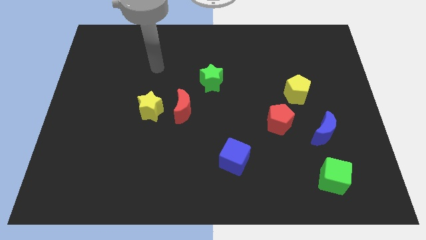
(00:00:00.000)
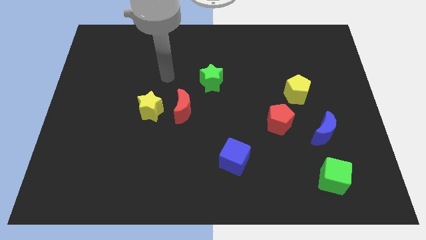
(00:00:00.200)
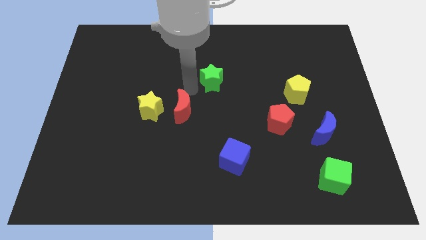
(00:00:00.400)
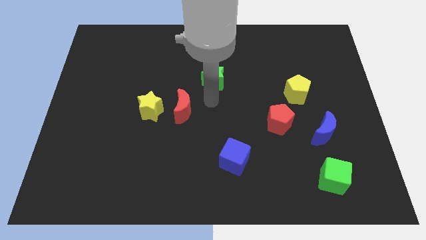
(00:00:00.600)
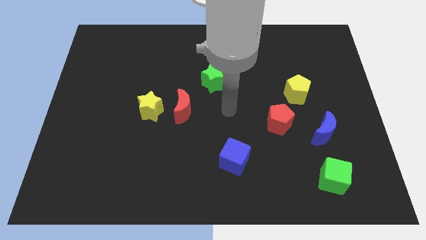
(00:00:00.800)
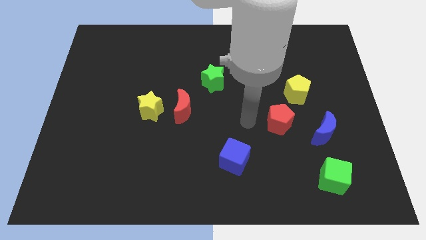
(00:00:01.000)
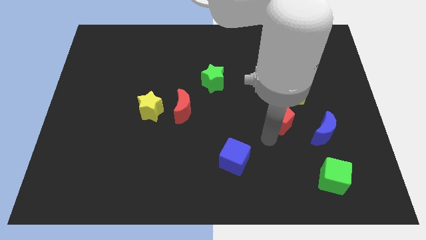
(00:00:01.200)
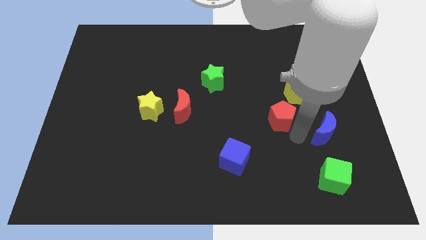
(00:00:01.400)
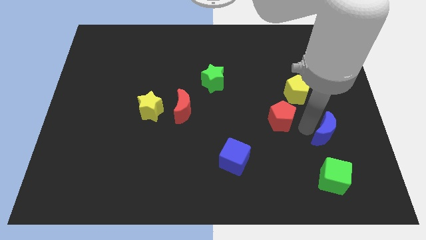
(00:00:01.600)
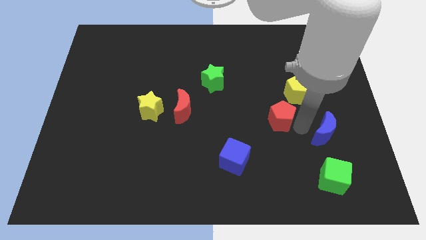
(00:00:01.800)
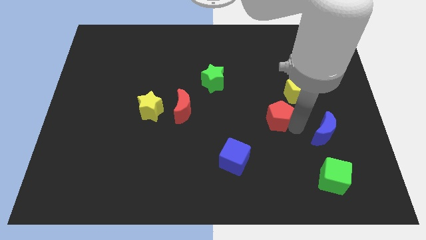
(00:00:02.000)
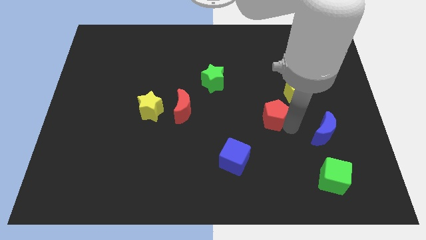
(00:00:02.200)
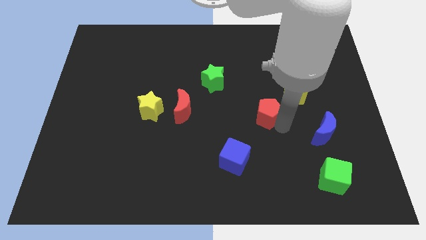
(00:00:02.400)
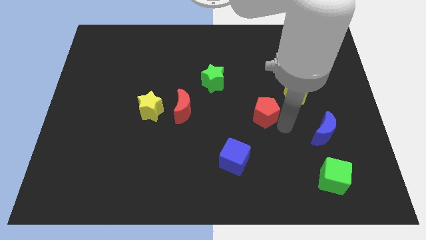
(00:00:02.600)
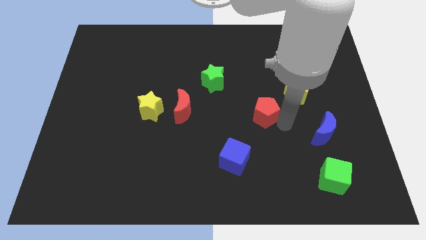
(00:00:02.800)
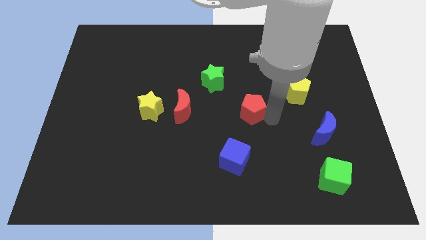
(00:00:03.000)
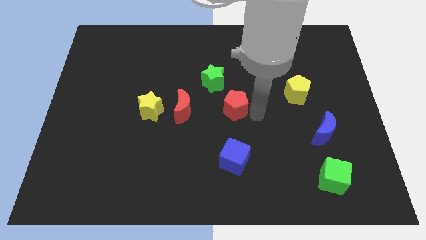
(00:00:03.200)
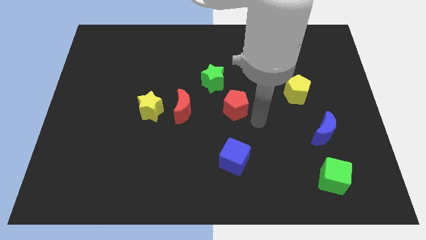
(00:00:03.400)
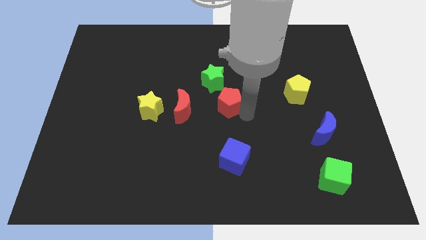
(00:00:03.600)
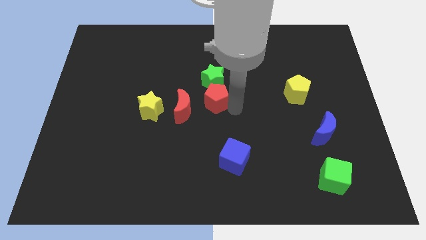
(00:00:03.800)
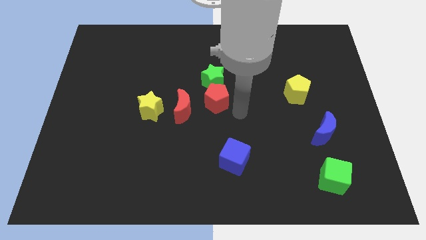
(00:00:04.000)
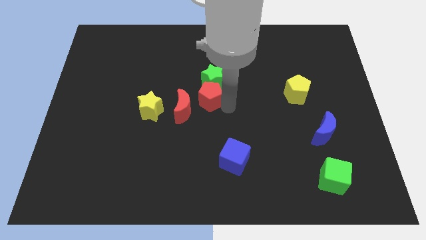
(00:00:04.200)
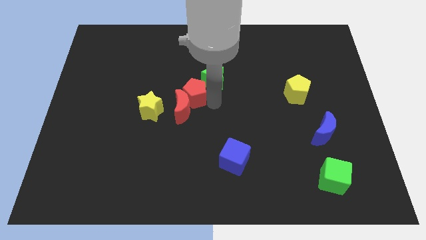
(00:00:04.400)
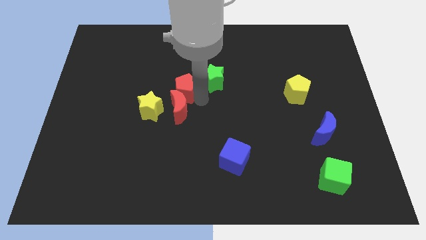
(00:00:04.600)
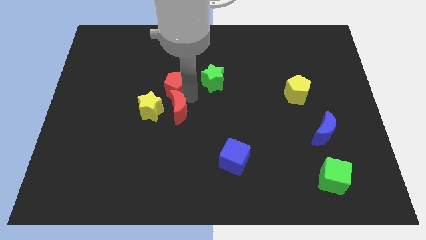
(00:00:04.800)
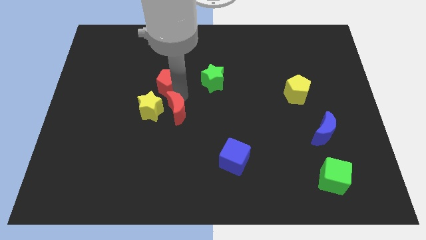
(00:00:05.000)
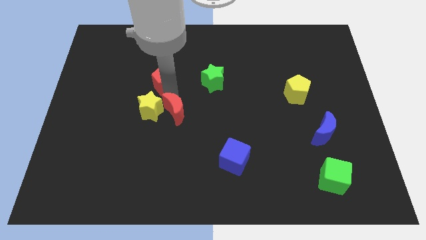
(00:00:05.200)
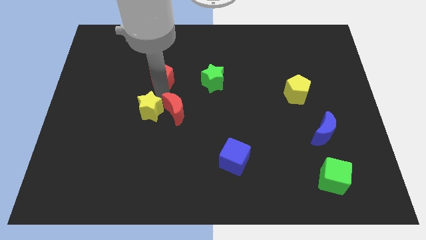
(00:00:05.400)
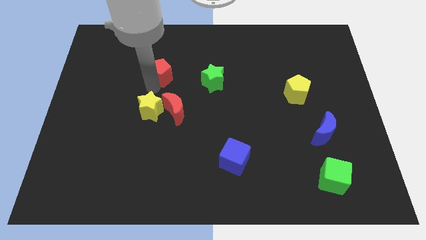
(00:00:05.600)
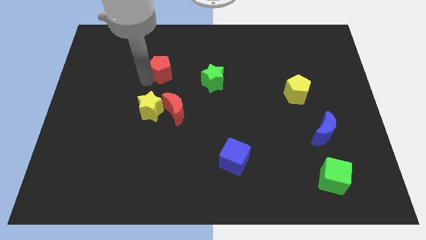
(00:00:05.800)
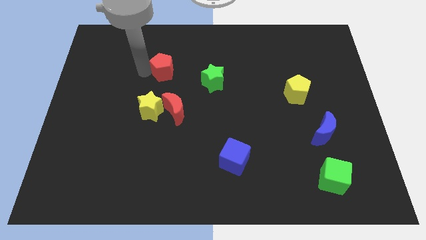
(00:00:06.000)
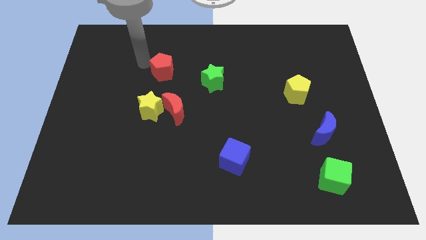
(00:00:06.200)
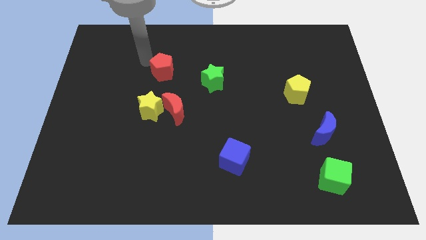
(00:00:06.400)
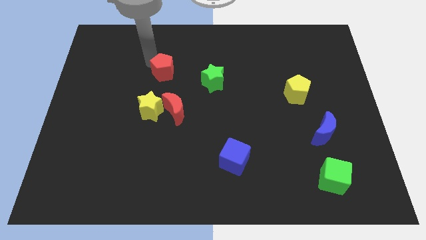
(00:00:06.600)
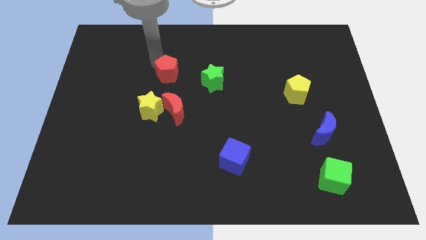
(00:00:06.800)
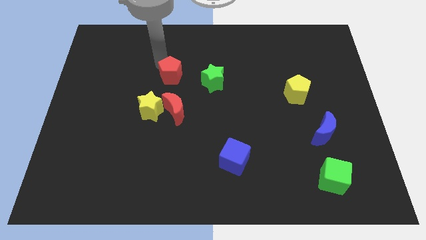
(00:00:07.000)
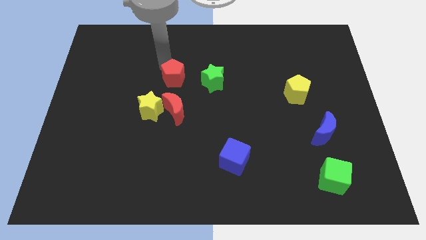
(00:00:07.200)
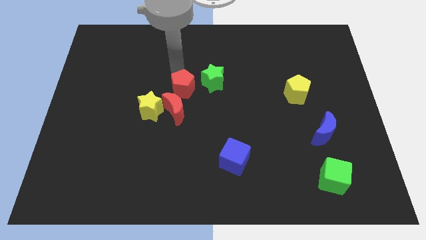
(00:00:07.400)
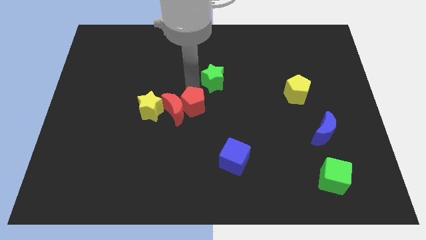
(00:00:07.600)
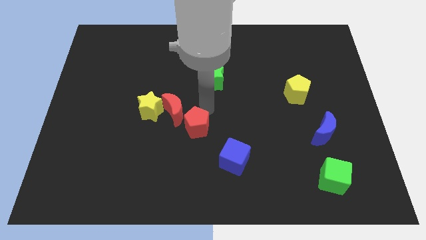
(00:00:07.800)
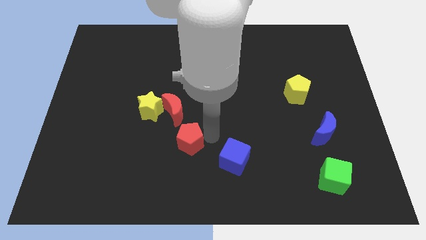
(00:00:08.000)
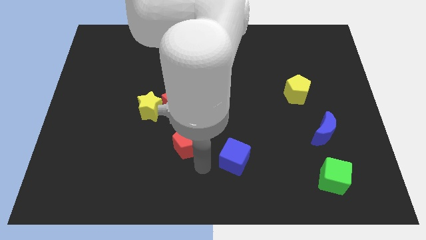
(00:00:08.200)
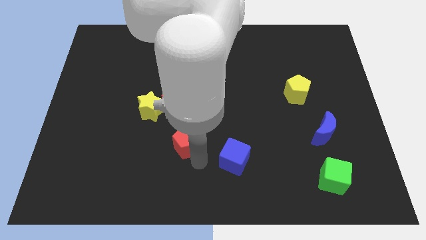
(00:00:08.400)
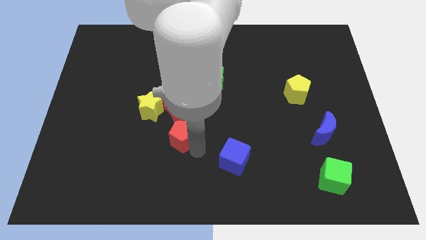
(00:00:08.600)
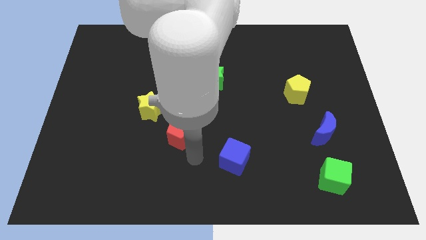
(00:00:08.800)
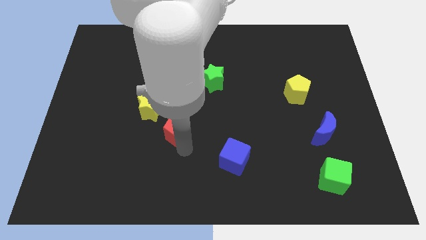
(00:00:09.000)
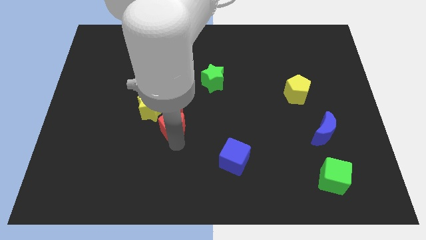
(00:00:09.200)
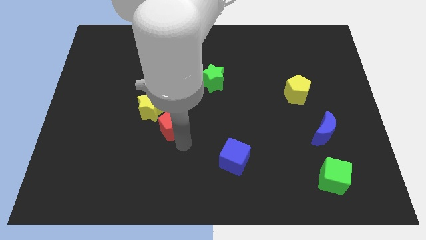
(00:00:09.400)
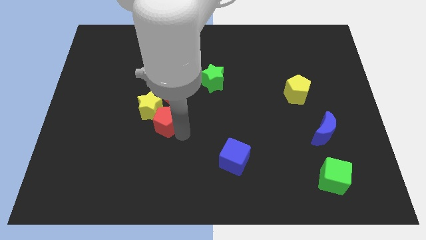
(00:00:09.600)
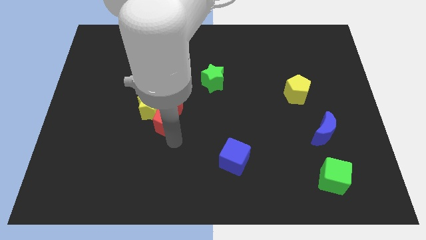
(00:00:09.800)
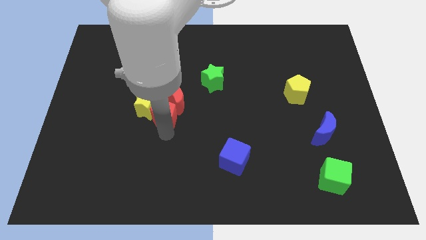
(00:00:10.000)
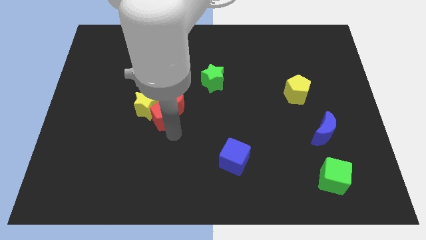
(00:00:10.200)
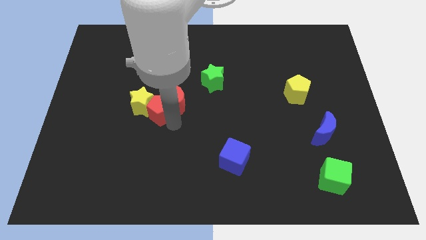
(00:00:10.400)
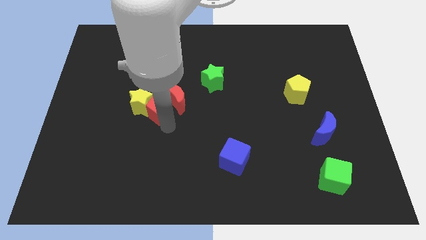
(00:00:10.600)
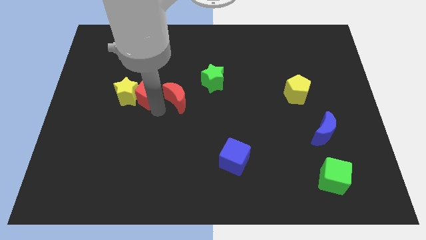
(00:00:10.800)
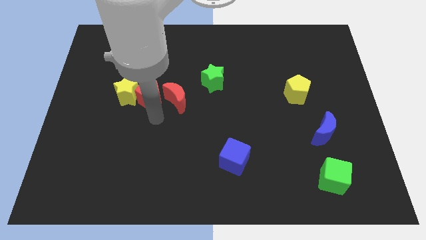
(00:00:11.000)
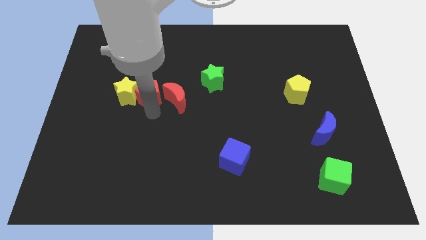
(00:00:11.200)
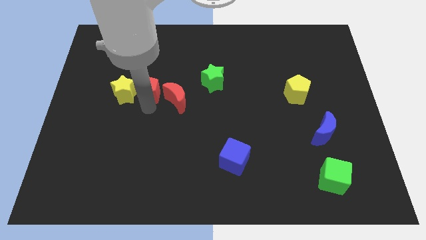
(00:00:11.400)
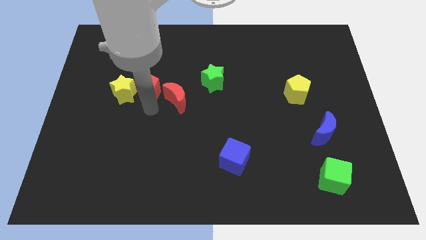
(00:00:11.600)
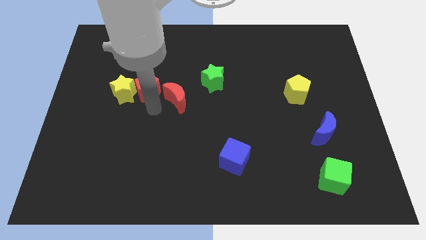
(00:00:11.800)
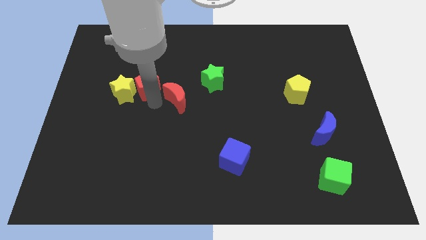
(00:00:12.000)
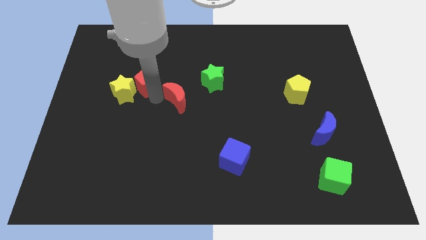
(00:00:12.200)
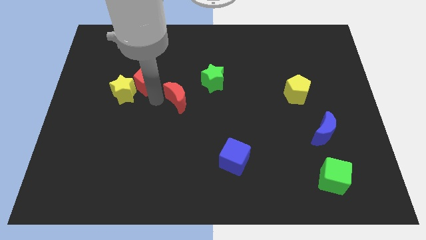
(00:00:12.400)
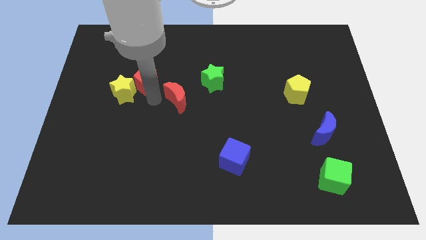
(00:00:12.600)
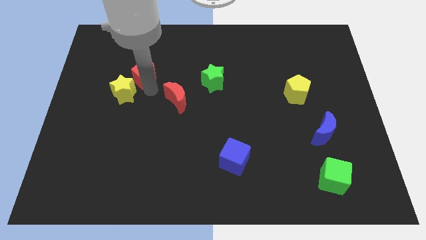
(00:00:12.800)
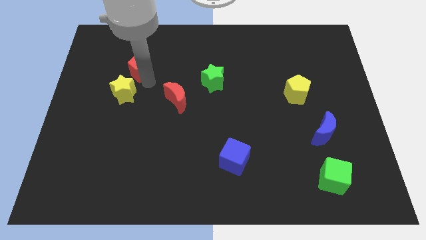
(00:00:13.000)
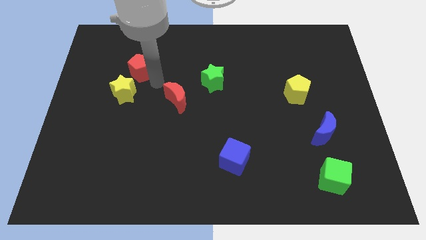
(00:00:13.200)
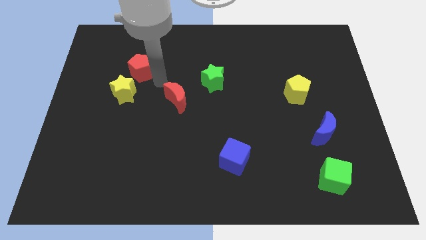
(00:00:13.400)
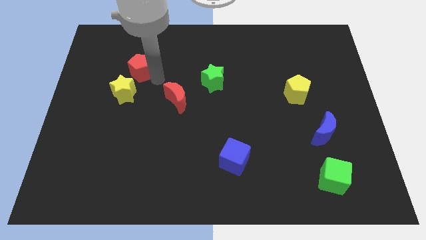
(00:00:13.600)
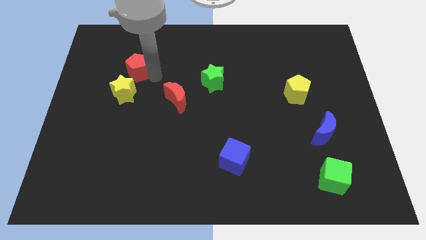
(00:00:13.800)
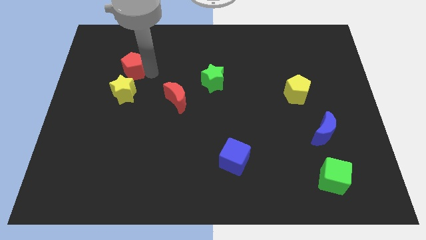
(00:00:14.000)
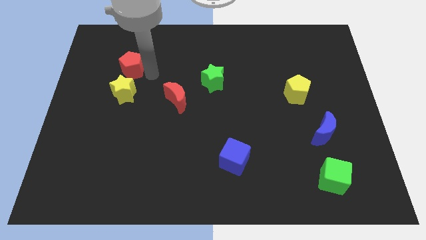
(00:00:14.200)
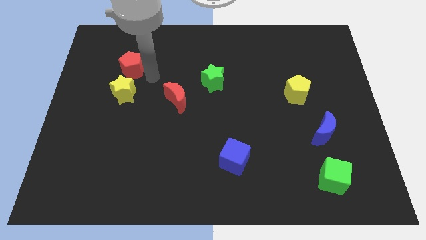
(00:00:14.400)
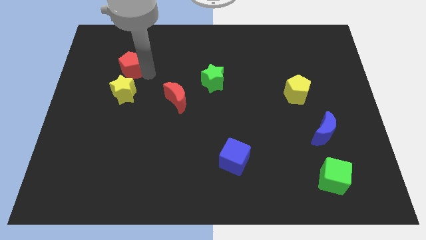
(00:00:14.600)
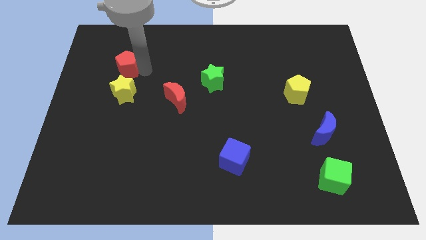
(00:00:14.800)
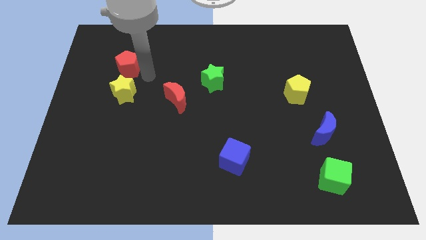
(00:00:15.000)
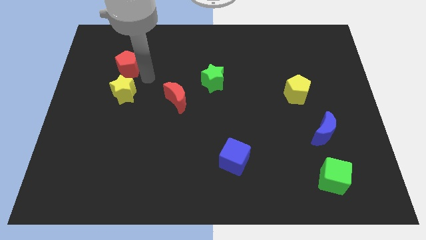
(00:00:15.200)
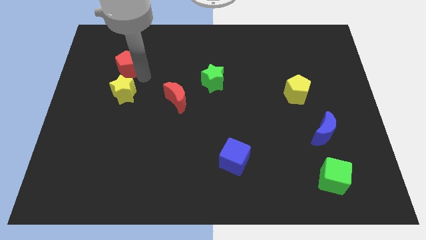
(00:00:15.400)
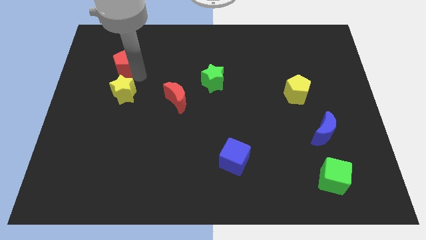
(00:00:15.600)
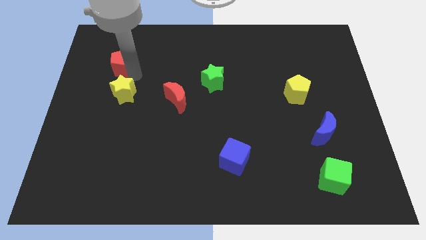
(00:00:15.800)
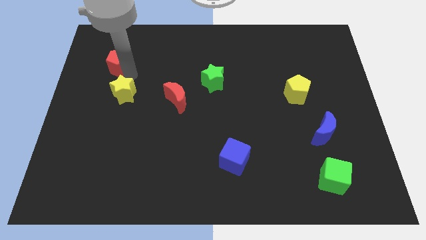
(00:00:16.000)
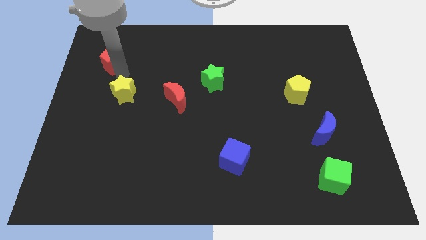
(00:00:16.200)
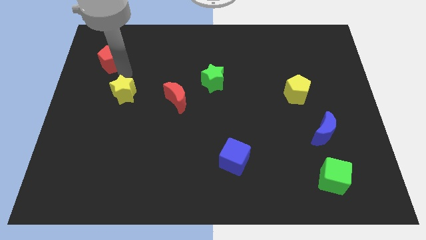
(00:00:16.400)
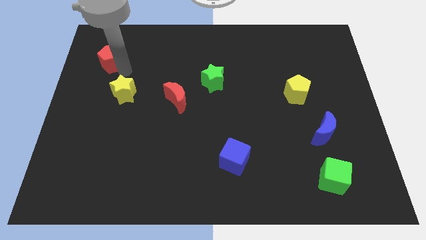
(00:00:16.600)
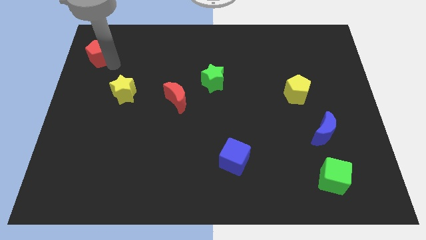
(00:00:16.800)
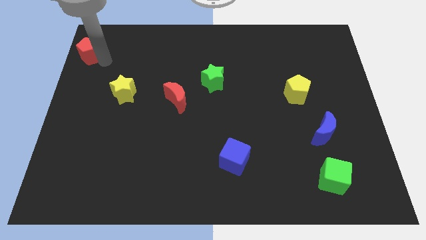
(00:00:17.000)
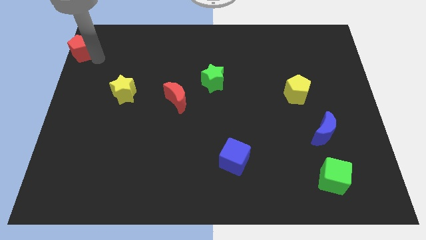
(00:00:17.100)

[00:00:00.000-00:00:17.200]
slide the red pentagon to the top left corner
